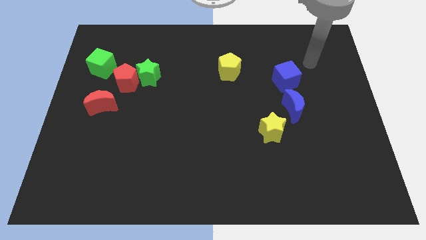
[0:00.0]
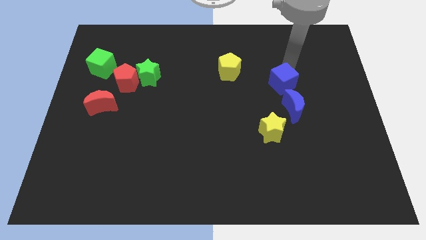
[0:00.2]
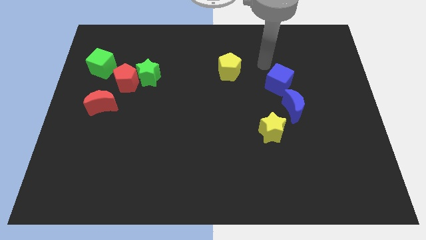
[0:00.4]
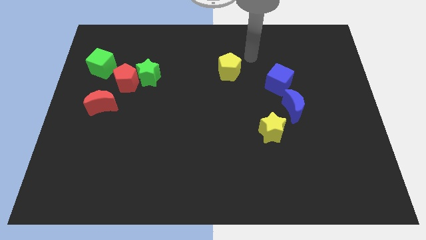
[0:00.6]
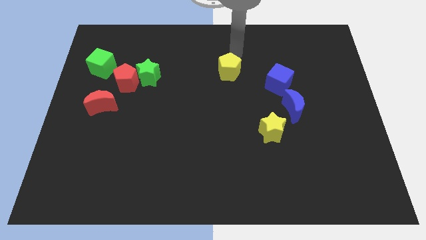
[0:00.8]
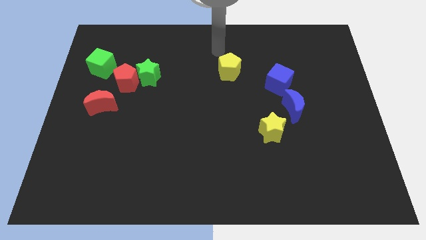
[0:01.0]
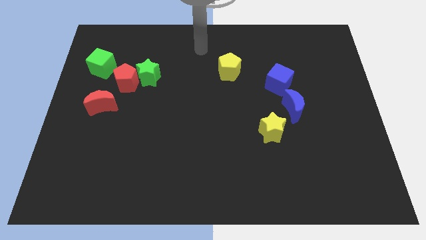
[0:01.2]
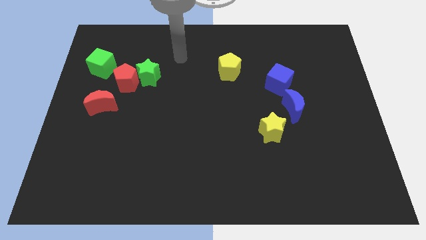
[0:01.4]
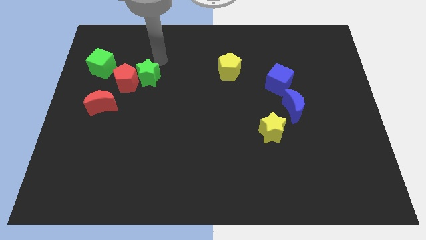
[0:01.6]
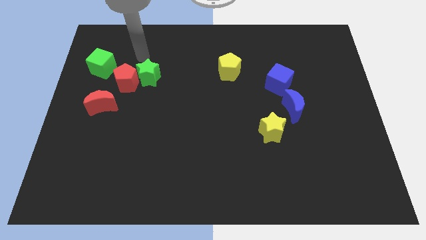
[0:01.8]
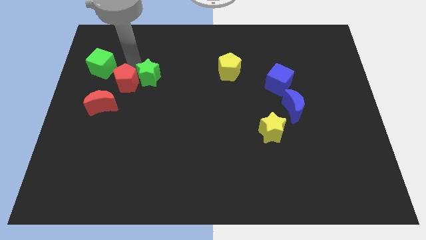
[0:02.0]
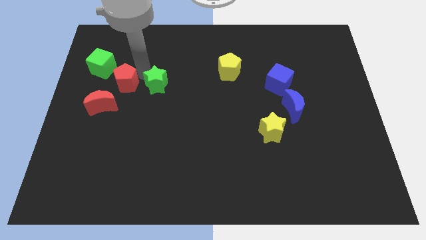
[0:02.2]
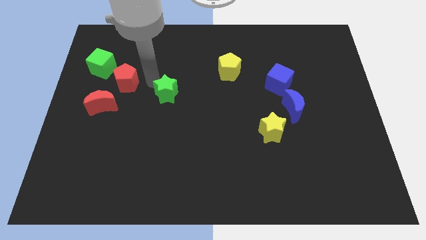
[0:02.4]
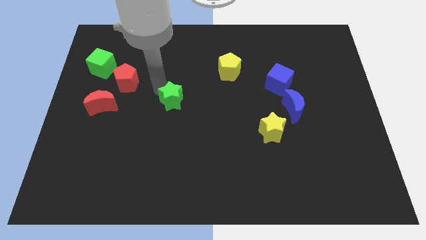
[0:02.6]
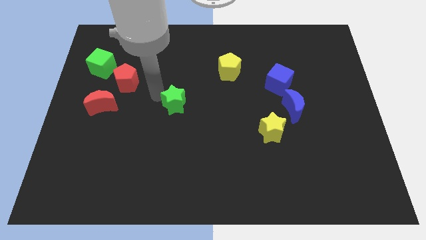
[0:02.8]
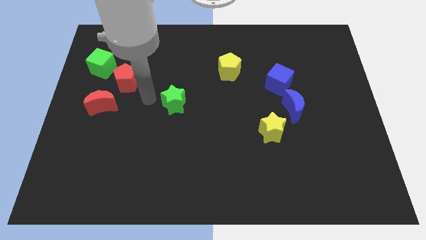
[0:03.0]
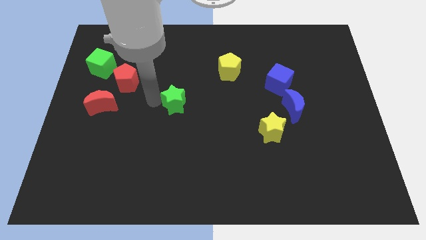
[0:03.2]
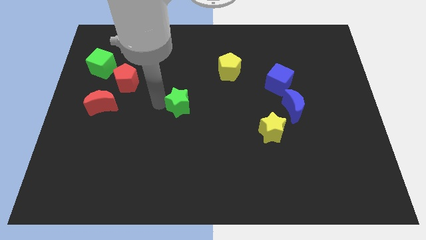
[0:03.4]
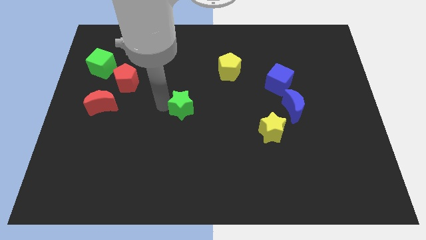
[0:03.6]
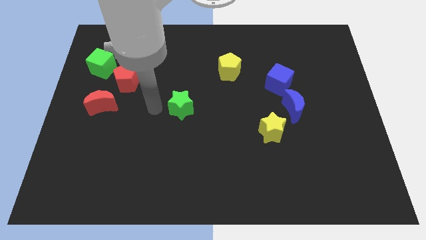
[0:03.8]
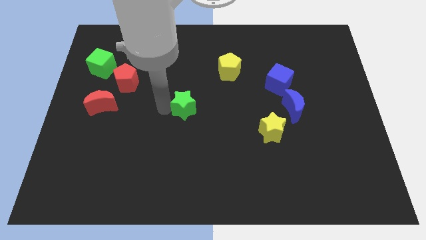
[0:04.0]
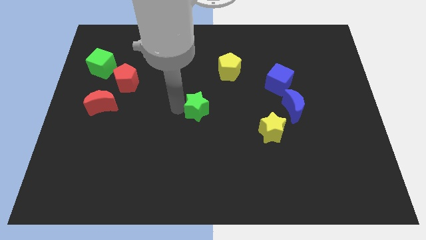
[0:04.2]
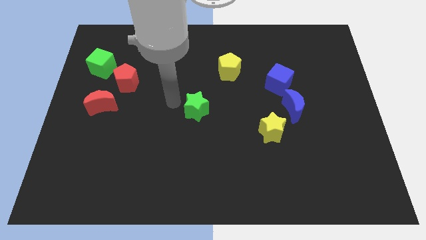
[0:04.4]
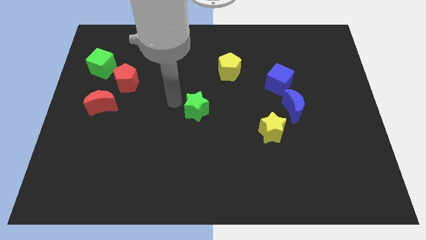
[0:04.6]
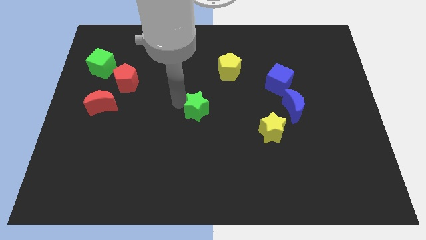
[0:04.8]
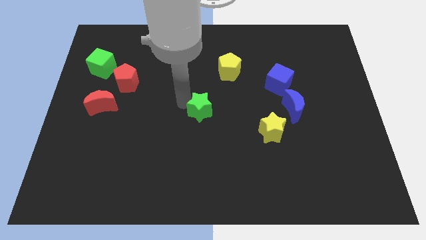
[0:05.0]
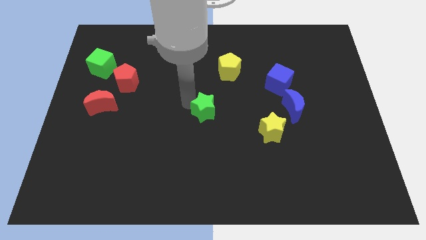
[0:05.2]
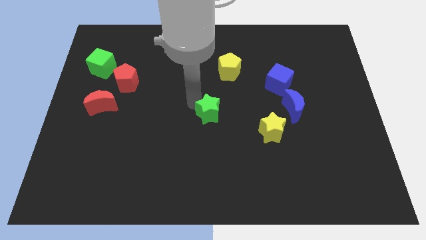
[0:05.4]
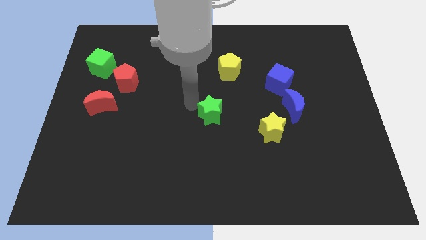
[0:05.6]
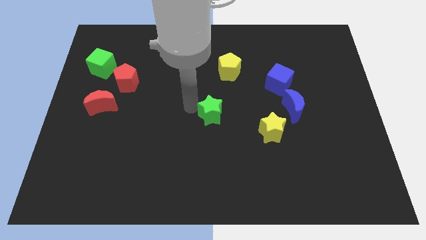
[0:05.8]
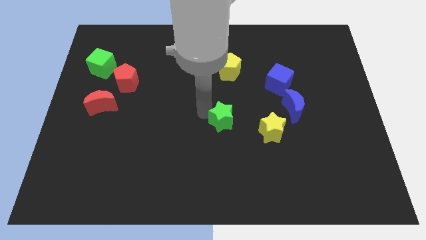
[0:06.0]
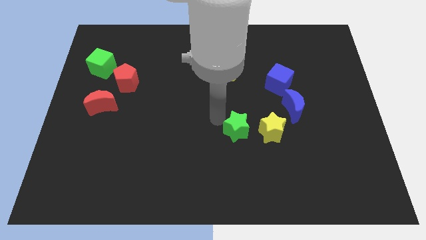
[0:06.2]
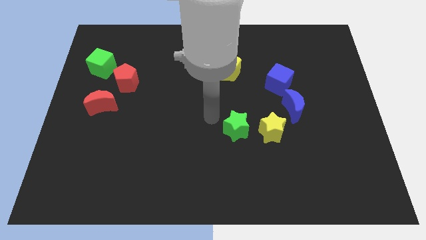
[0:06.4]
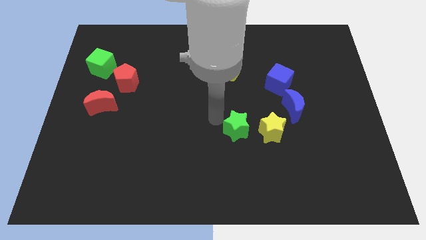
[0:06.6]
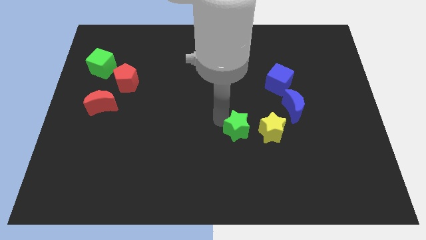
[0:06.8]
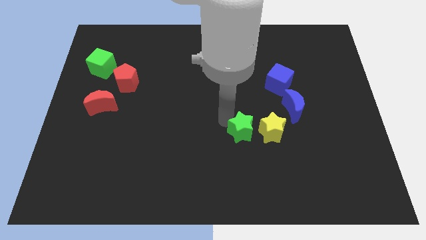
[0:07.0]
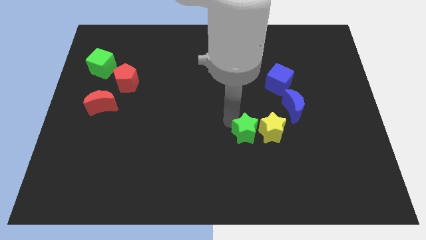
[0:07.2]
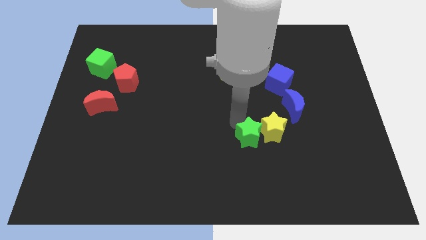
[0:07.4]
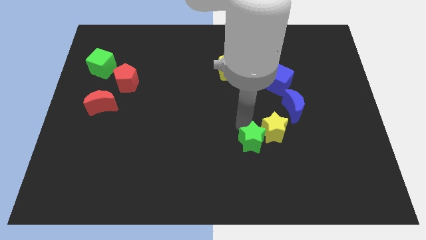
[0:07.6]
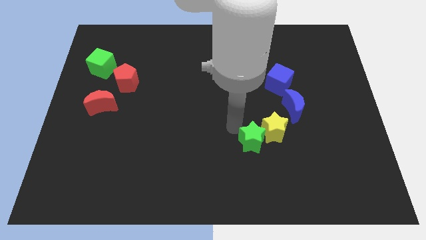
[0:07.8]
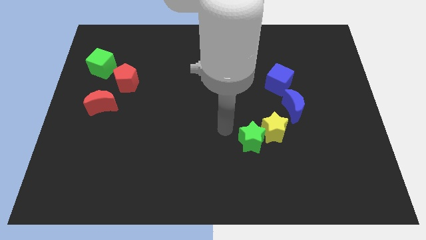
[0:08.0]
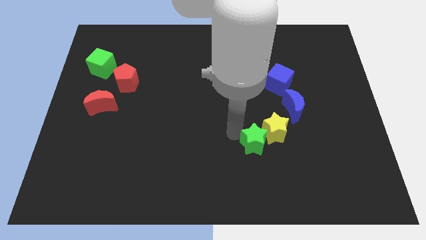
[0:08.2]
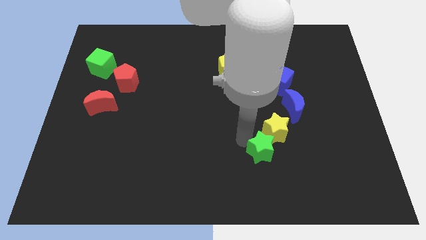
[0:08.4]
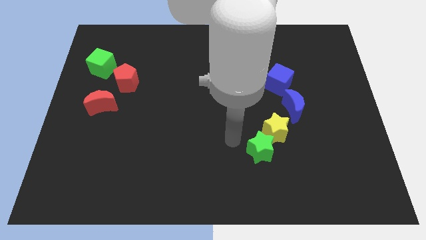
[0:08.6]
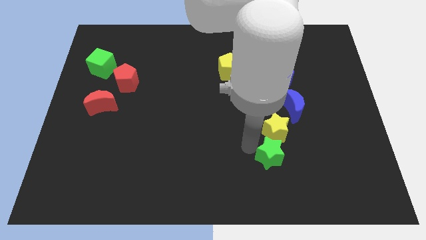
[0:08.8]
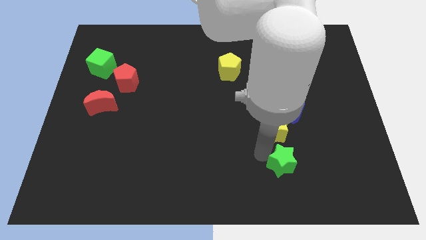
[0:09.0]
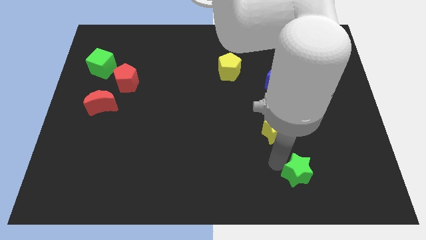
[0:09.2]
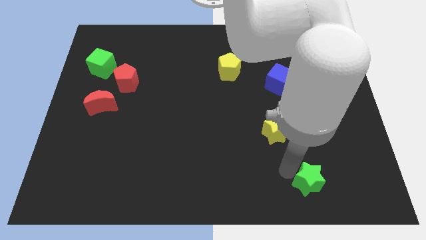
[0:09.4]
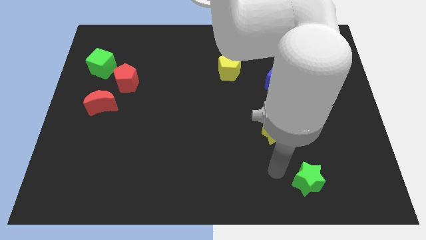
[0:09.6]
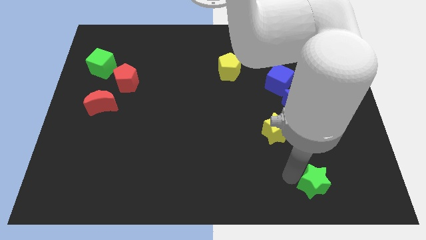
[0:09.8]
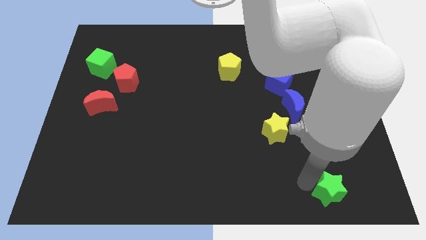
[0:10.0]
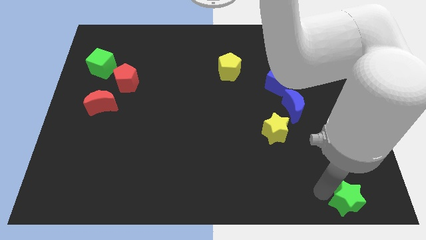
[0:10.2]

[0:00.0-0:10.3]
slide the green star to the bottom right corner

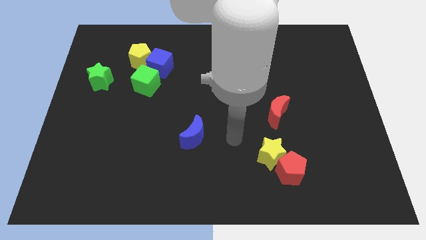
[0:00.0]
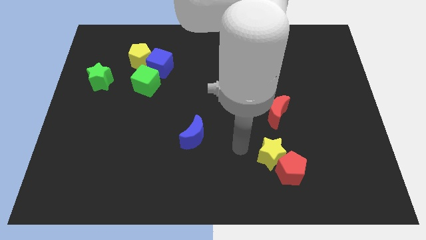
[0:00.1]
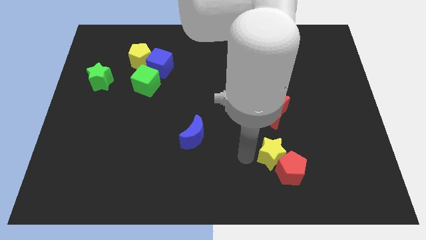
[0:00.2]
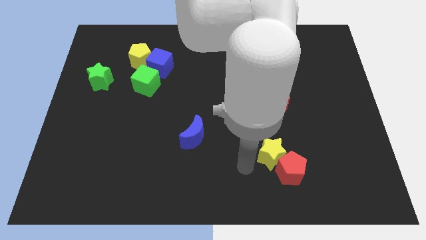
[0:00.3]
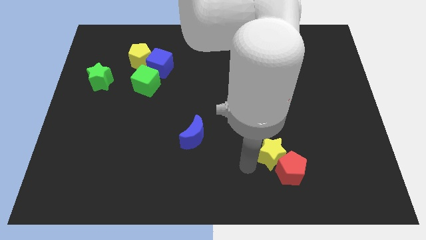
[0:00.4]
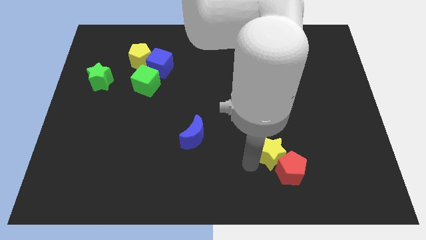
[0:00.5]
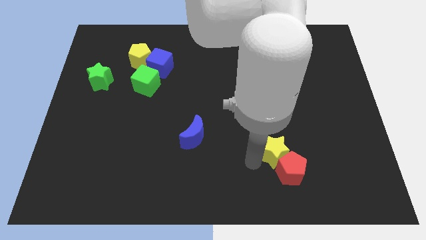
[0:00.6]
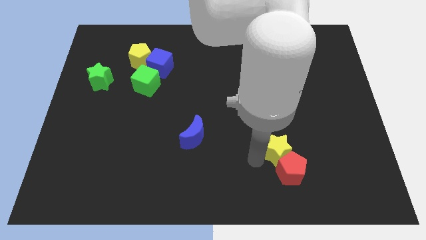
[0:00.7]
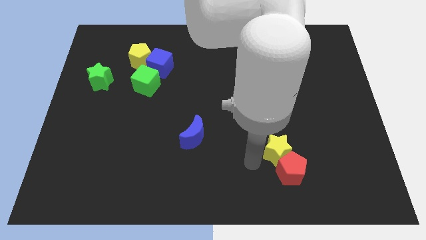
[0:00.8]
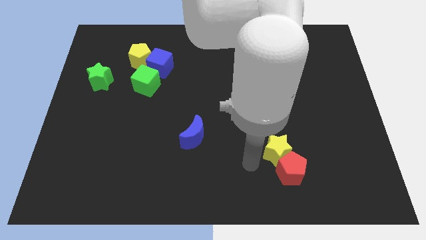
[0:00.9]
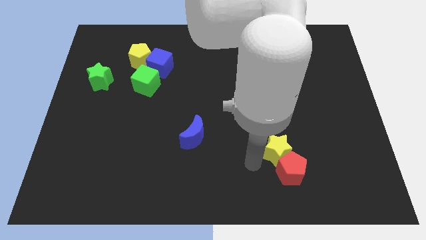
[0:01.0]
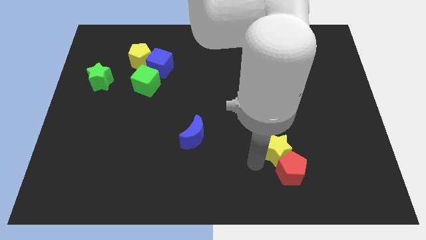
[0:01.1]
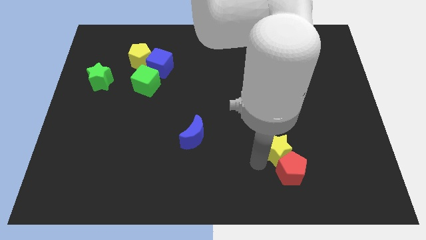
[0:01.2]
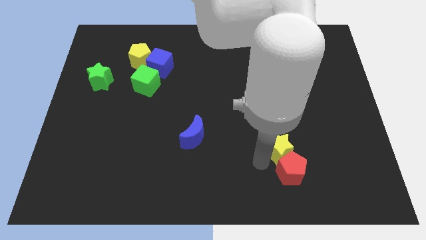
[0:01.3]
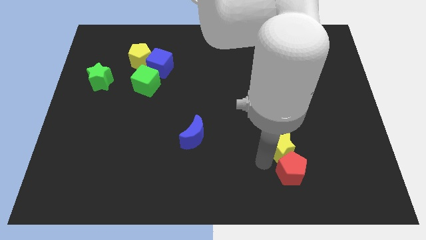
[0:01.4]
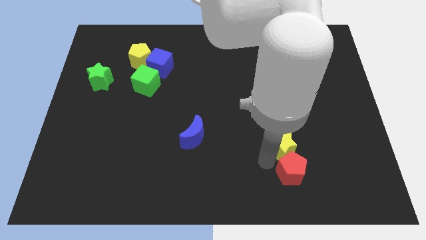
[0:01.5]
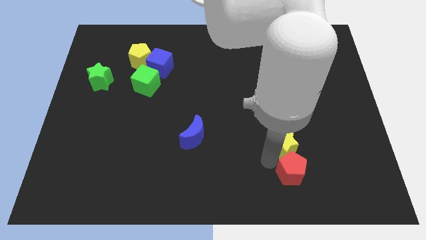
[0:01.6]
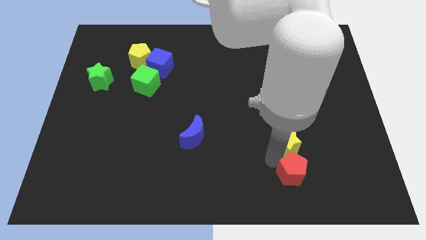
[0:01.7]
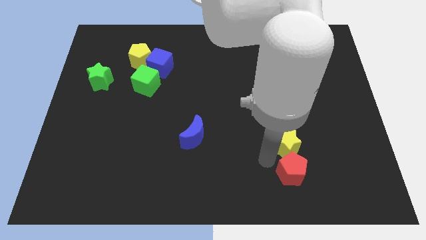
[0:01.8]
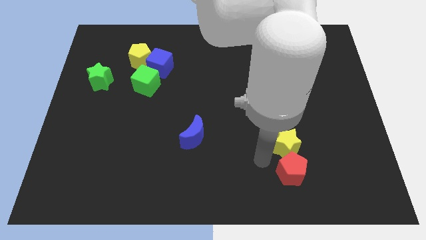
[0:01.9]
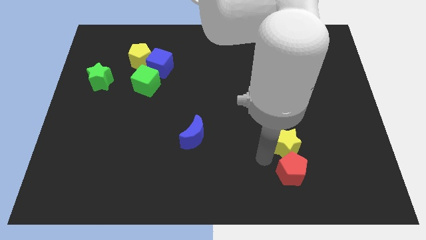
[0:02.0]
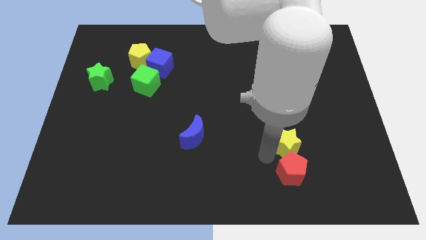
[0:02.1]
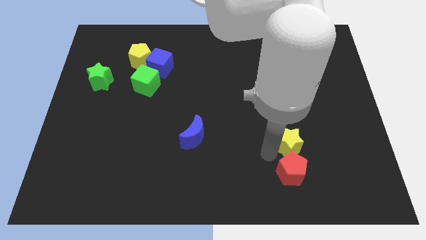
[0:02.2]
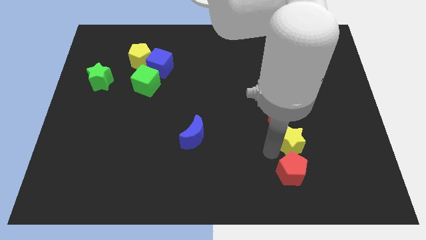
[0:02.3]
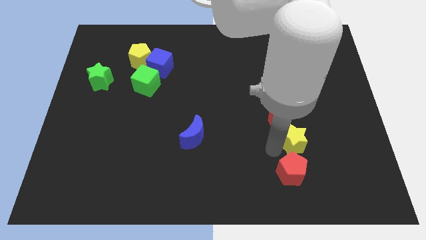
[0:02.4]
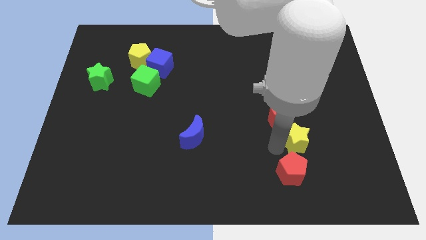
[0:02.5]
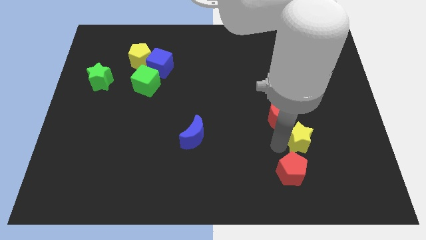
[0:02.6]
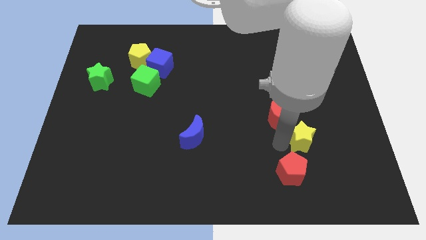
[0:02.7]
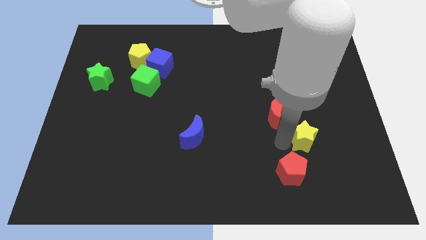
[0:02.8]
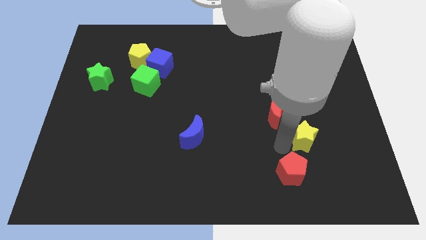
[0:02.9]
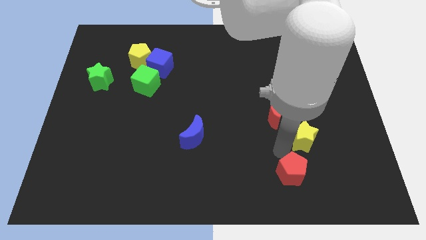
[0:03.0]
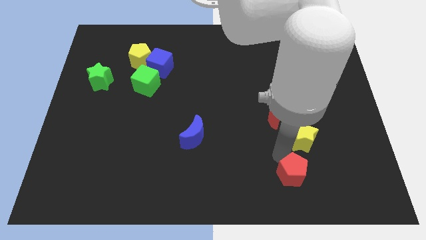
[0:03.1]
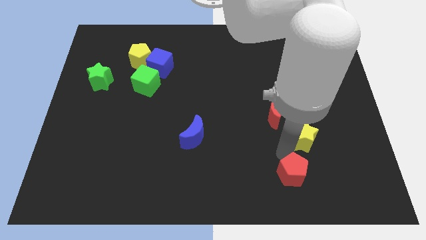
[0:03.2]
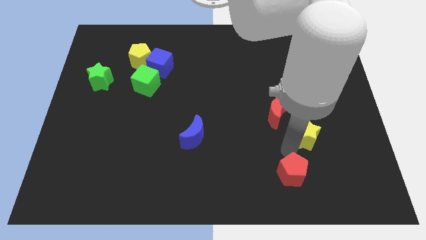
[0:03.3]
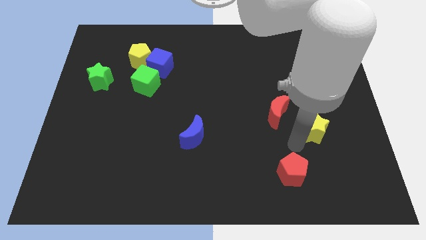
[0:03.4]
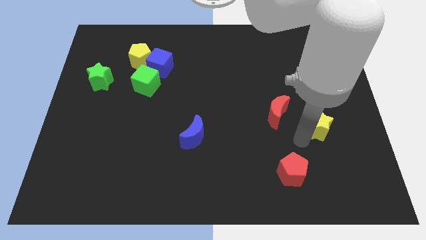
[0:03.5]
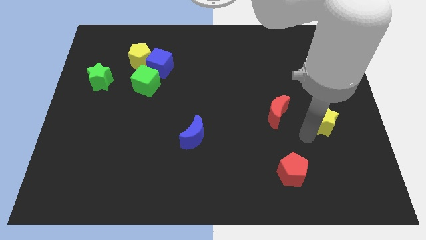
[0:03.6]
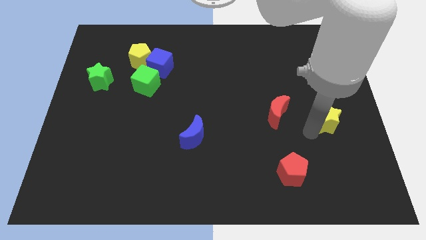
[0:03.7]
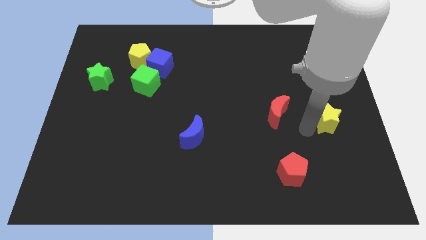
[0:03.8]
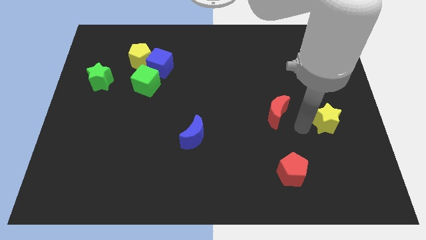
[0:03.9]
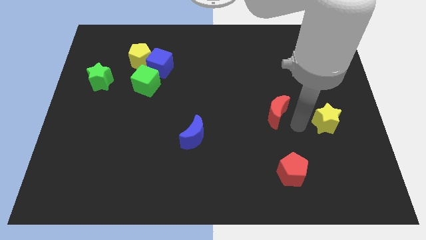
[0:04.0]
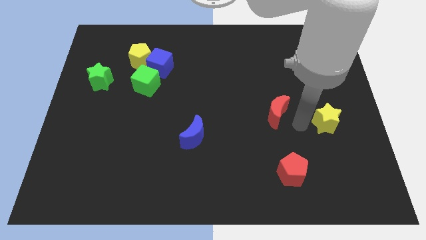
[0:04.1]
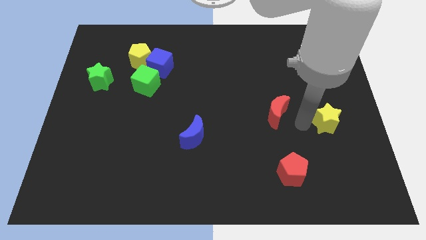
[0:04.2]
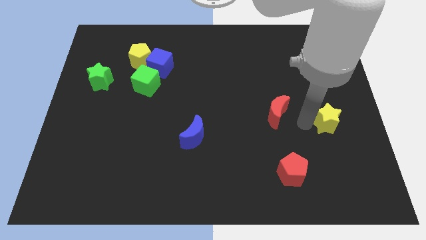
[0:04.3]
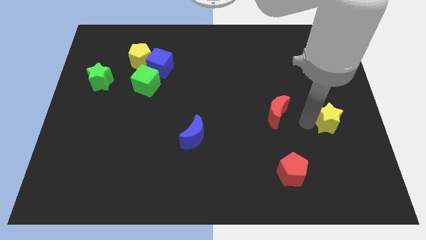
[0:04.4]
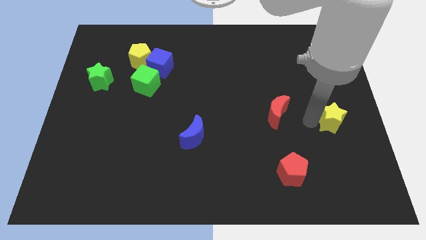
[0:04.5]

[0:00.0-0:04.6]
slide the yellow star to the right side
